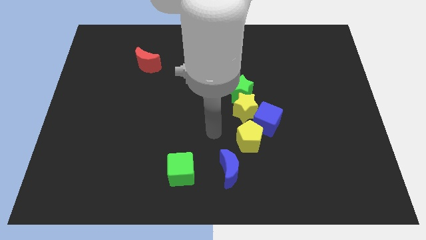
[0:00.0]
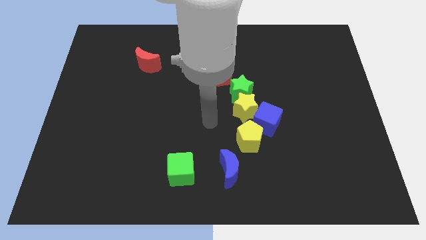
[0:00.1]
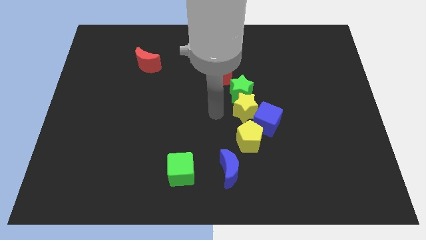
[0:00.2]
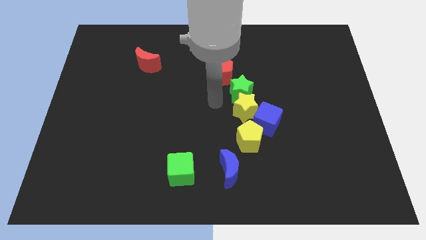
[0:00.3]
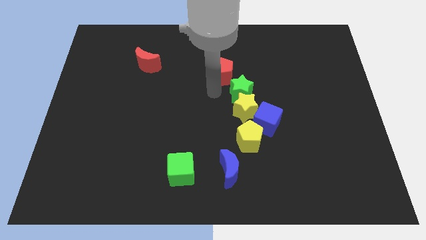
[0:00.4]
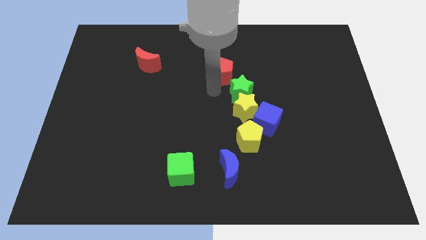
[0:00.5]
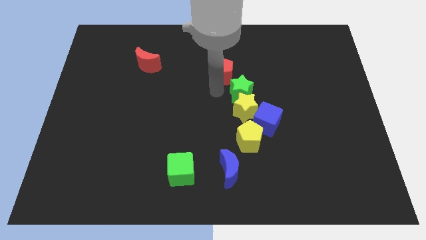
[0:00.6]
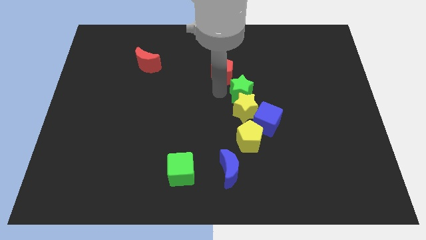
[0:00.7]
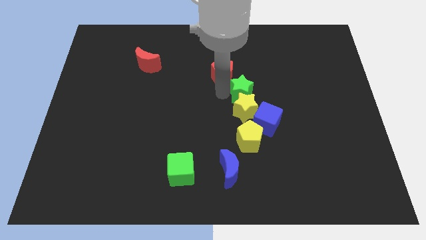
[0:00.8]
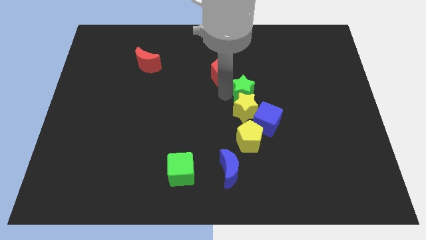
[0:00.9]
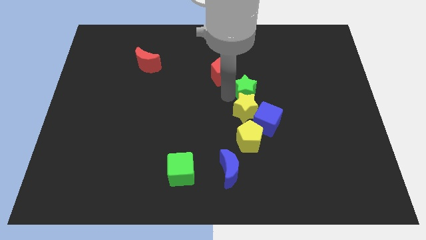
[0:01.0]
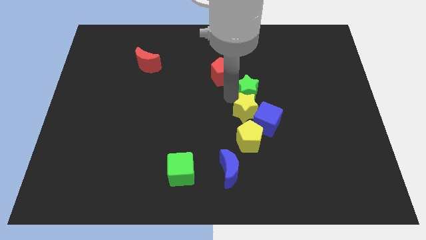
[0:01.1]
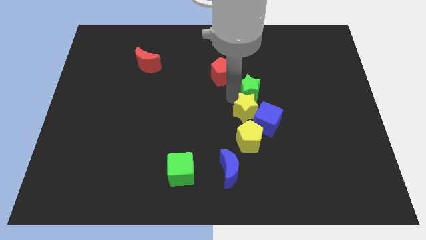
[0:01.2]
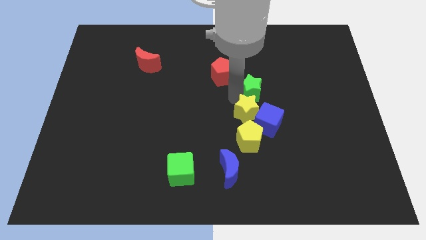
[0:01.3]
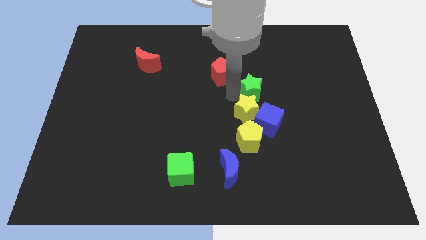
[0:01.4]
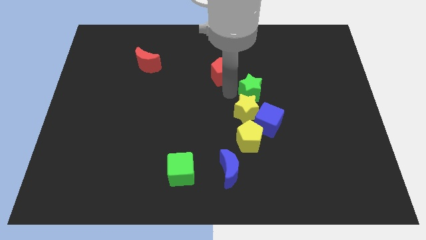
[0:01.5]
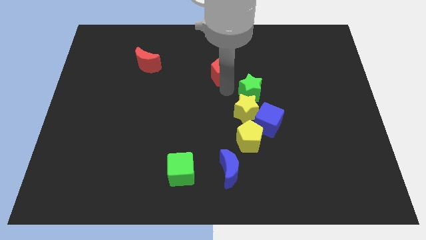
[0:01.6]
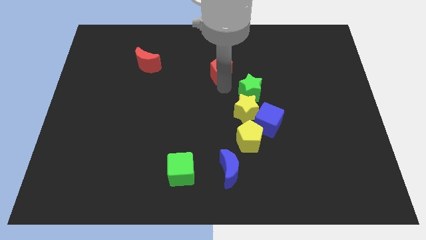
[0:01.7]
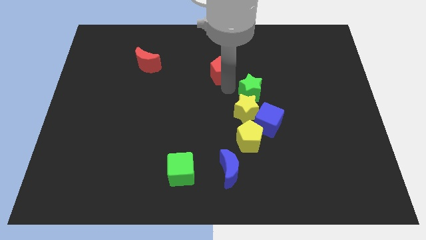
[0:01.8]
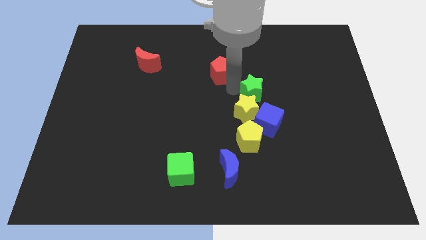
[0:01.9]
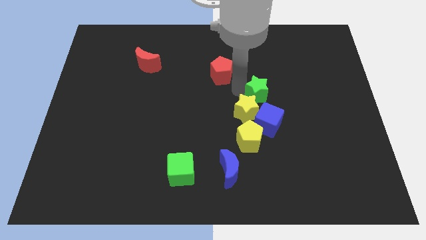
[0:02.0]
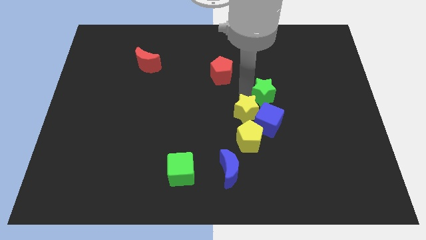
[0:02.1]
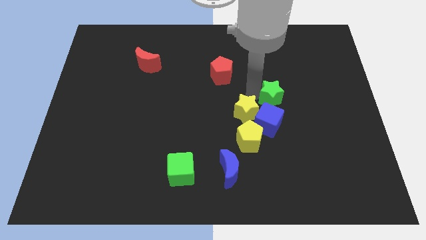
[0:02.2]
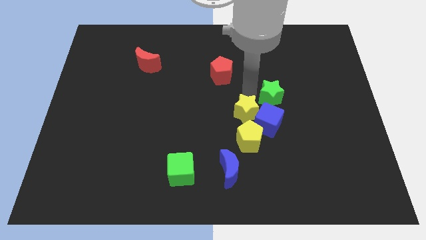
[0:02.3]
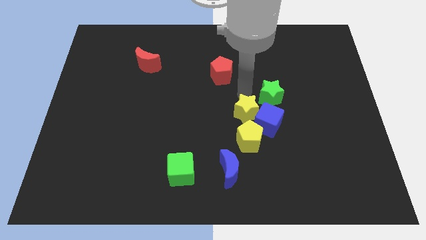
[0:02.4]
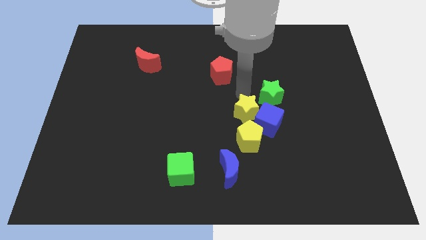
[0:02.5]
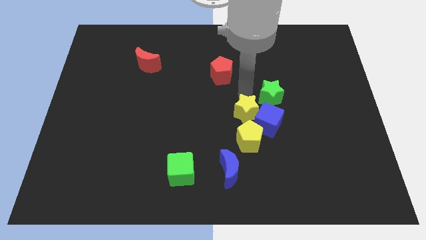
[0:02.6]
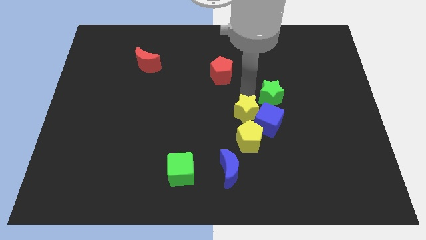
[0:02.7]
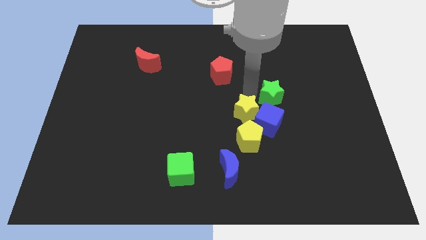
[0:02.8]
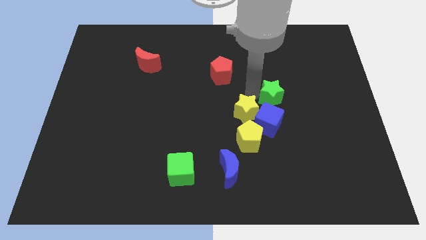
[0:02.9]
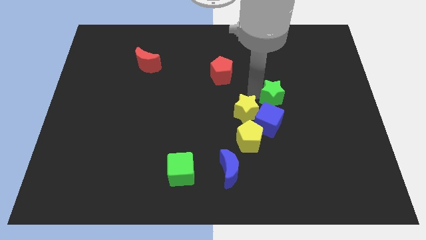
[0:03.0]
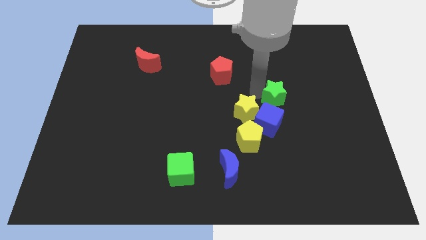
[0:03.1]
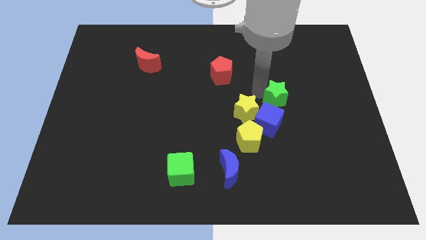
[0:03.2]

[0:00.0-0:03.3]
move the green star away from the yellow star and red pentagon

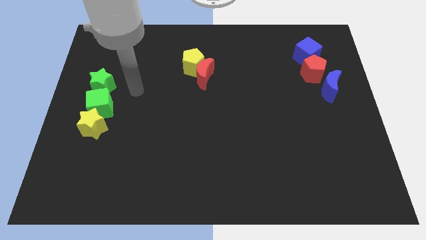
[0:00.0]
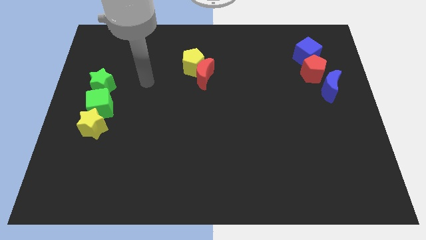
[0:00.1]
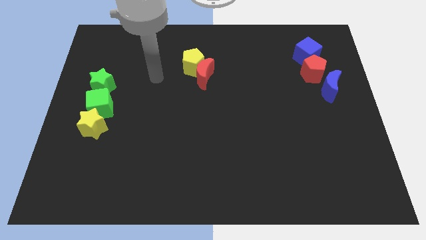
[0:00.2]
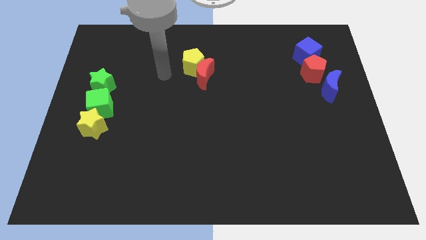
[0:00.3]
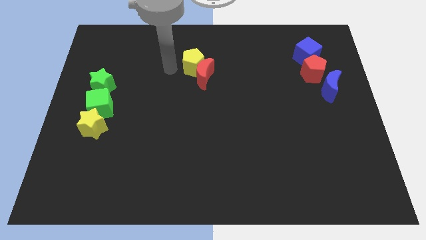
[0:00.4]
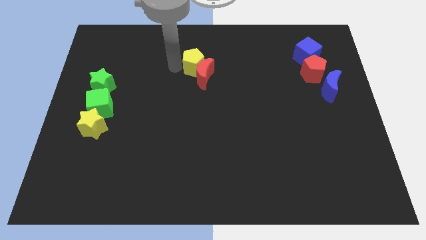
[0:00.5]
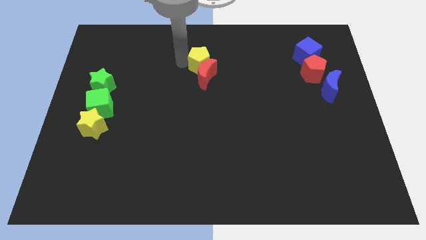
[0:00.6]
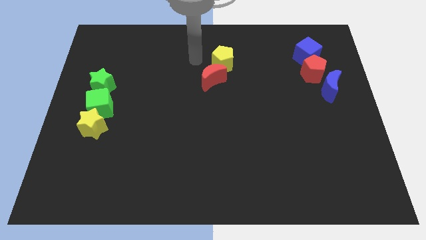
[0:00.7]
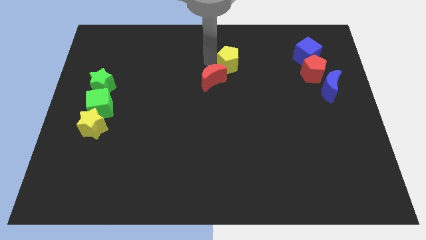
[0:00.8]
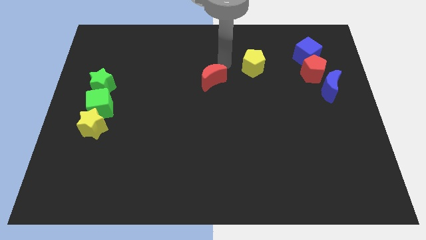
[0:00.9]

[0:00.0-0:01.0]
pull the red moon apart from the yellow pentagon

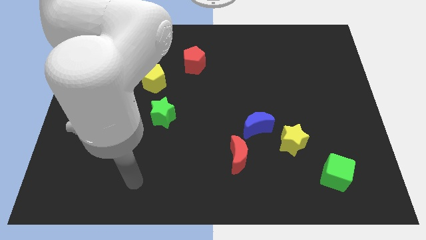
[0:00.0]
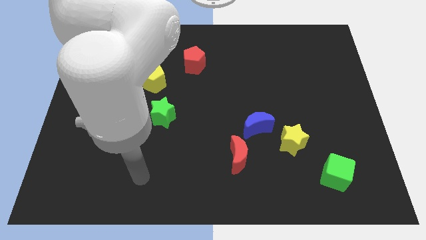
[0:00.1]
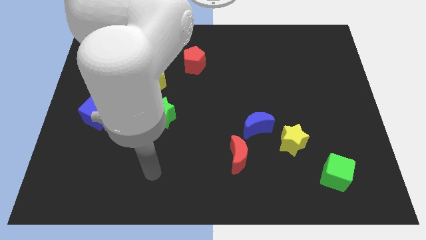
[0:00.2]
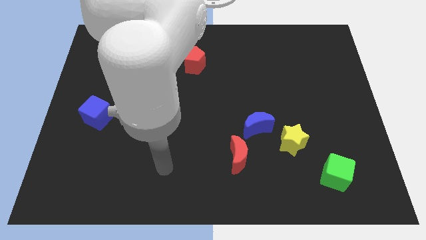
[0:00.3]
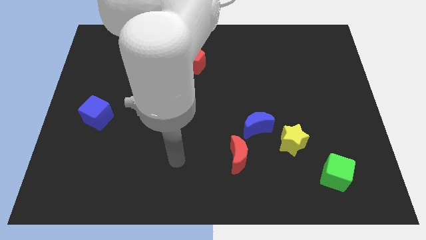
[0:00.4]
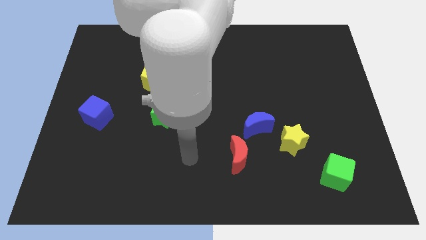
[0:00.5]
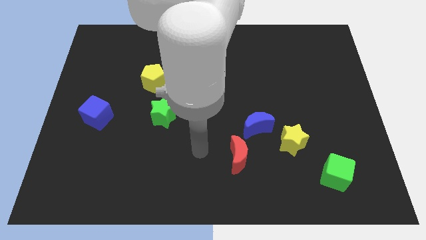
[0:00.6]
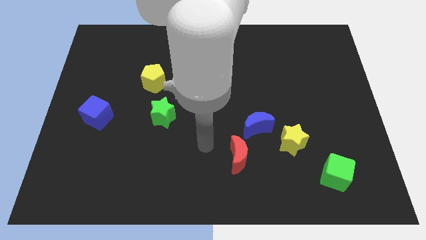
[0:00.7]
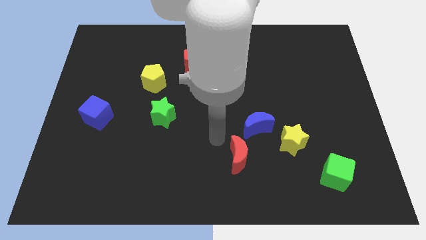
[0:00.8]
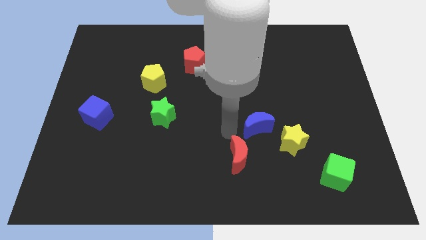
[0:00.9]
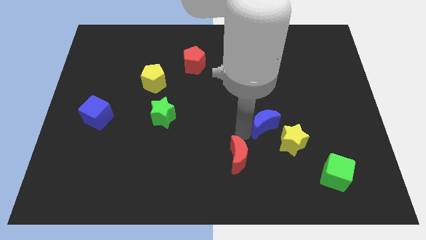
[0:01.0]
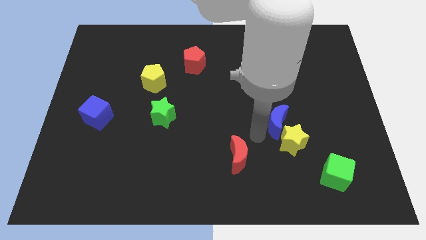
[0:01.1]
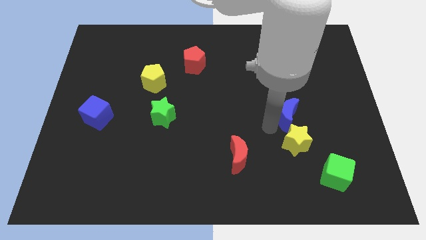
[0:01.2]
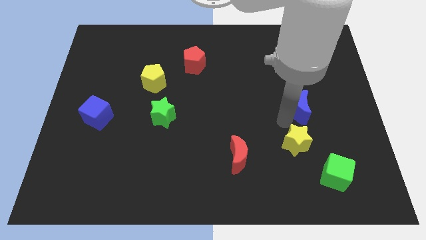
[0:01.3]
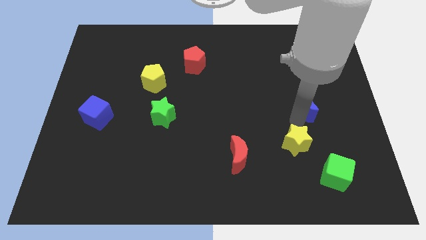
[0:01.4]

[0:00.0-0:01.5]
pull the yellow star apart from the blue moon

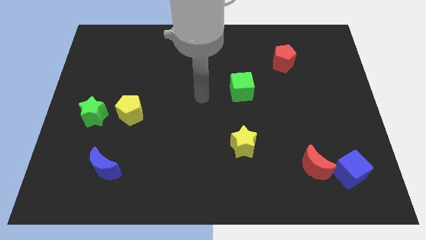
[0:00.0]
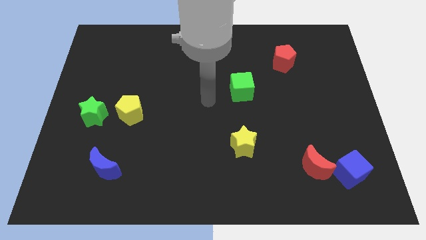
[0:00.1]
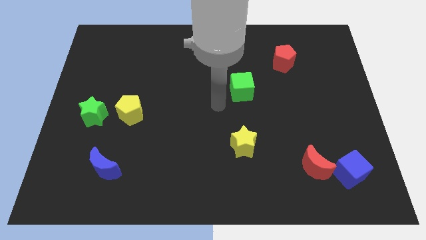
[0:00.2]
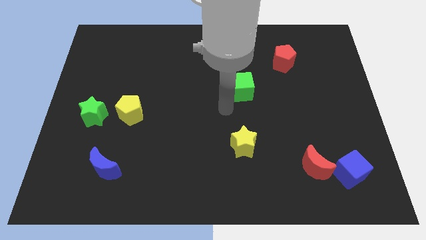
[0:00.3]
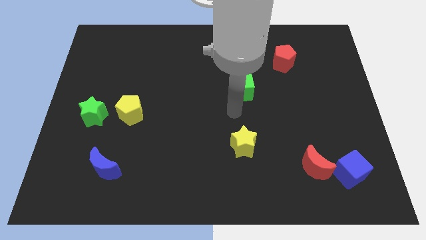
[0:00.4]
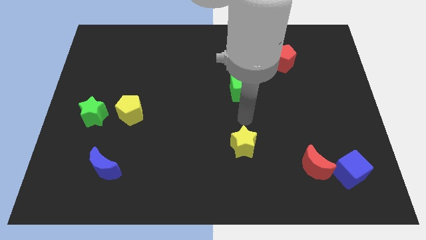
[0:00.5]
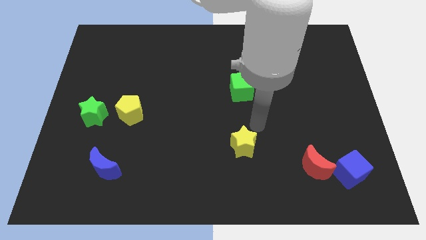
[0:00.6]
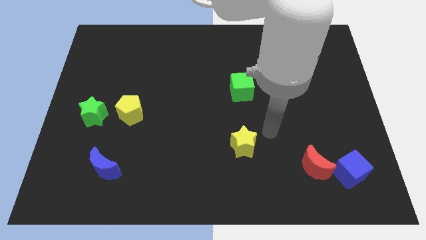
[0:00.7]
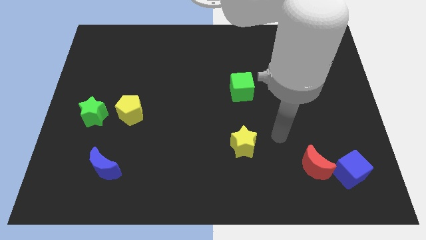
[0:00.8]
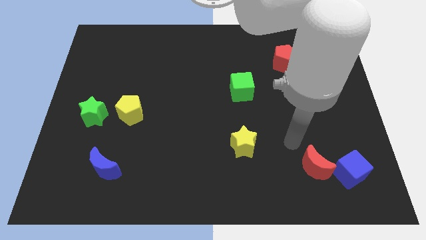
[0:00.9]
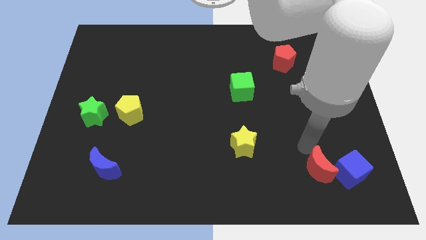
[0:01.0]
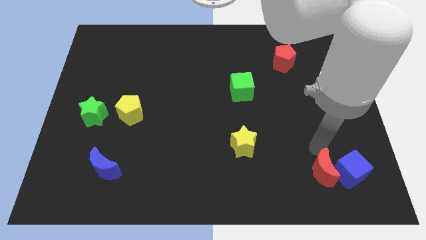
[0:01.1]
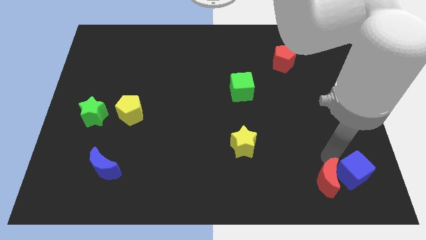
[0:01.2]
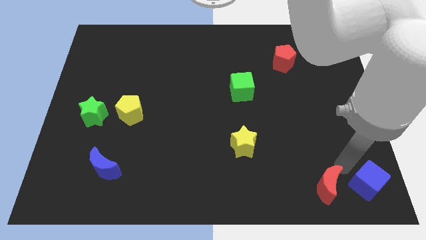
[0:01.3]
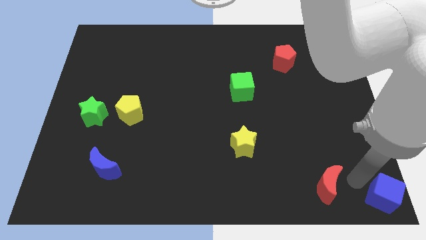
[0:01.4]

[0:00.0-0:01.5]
pull the red moon apart from the blue cube

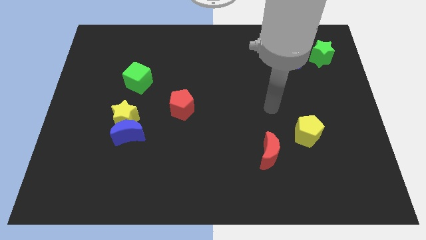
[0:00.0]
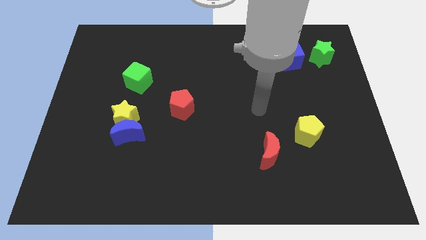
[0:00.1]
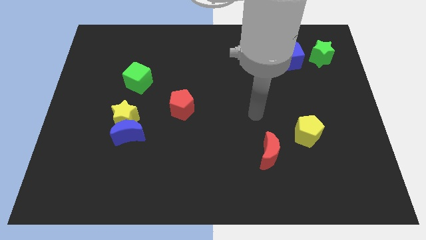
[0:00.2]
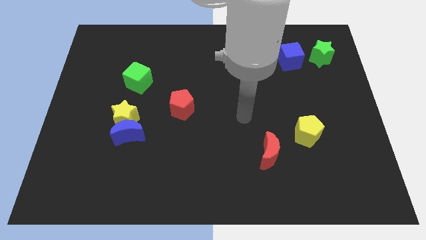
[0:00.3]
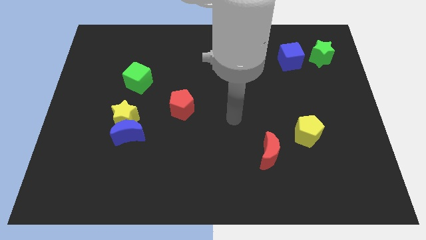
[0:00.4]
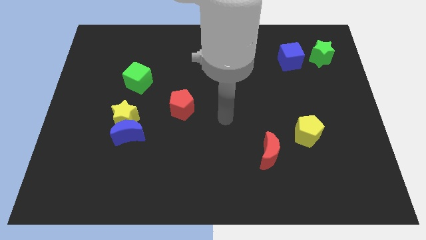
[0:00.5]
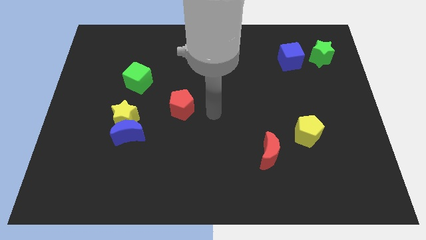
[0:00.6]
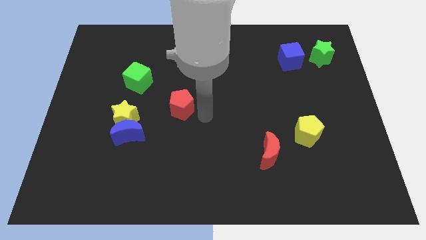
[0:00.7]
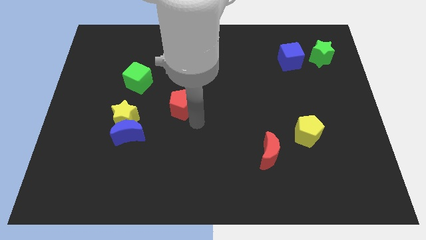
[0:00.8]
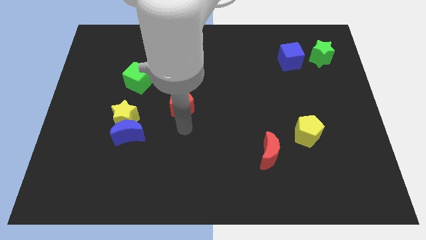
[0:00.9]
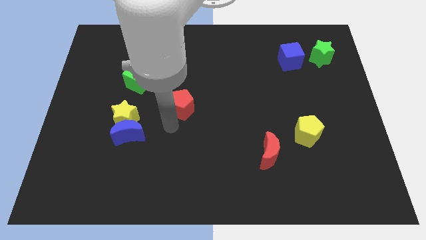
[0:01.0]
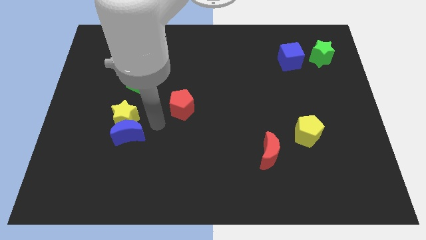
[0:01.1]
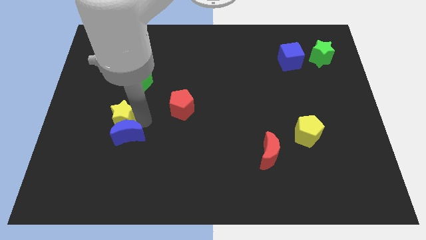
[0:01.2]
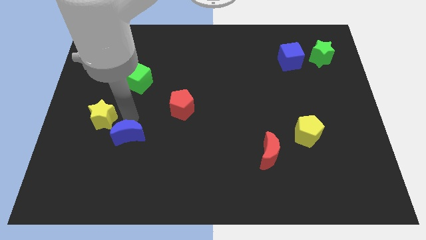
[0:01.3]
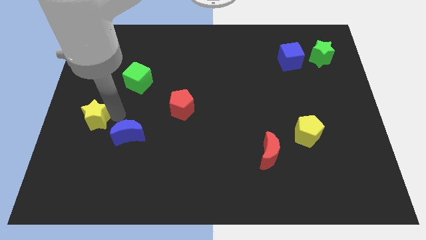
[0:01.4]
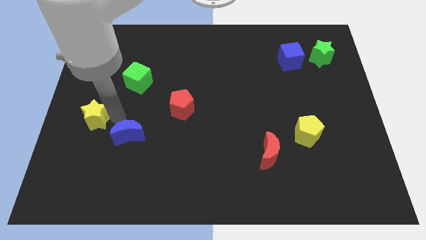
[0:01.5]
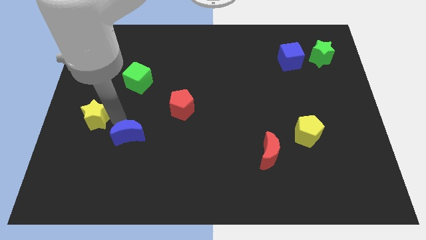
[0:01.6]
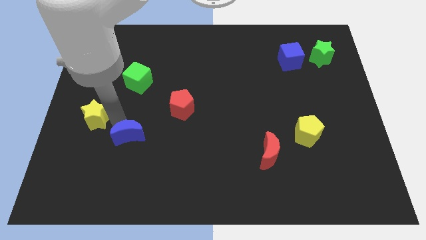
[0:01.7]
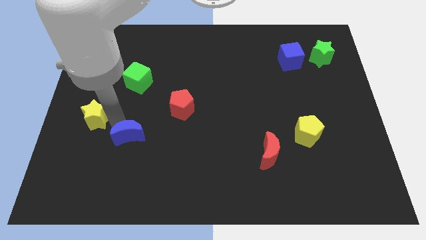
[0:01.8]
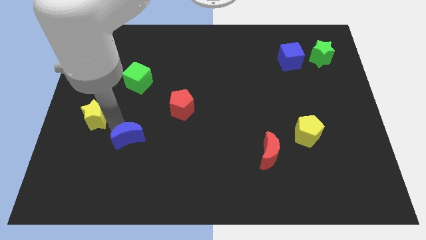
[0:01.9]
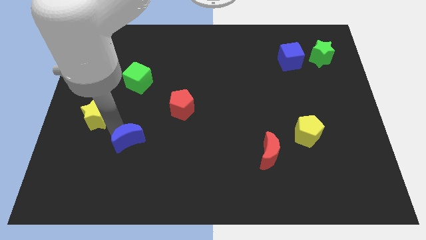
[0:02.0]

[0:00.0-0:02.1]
separate the blue moon from the yellow star
